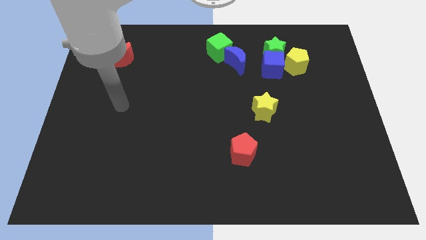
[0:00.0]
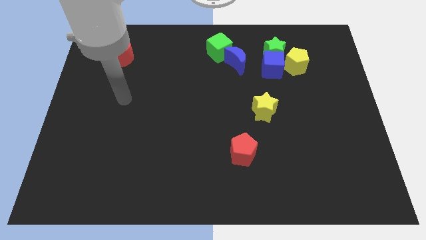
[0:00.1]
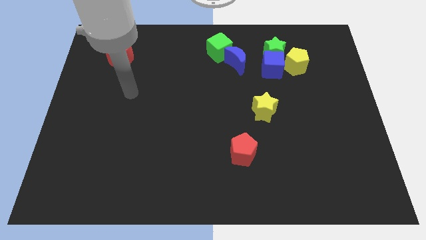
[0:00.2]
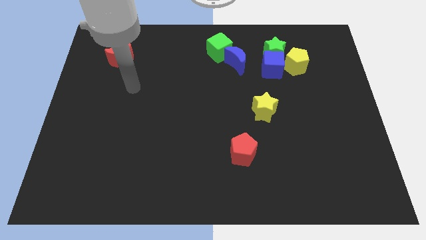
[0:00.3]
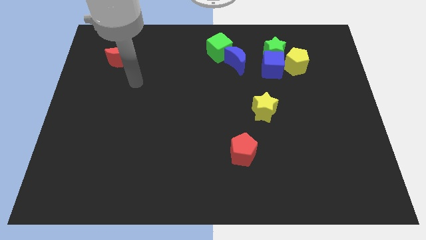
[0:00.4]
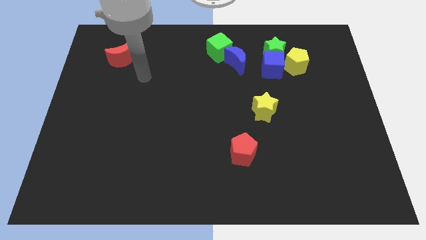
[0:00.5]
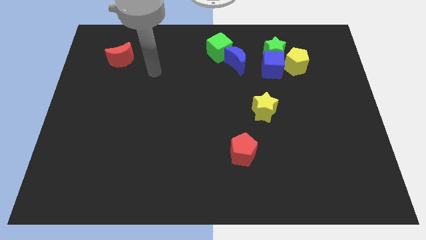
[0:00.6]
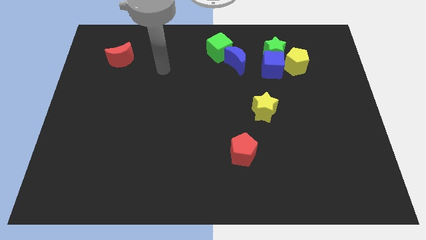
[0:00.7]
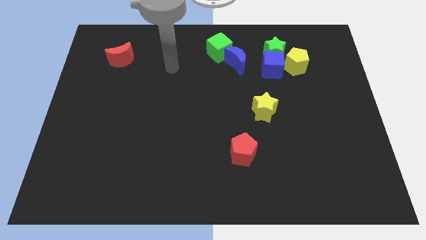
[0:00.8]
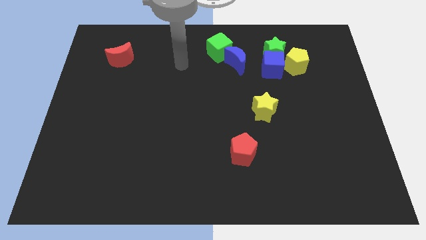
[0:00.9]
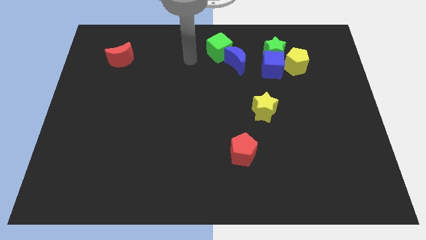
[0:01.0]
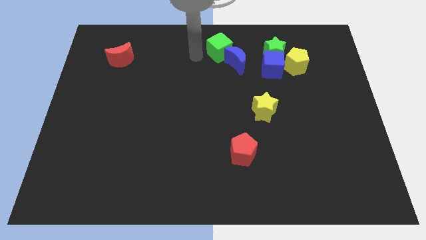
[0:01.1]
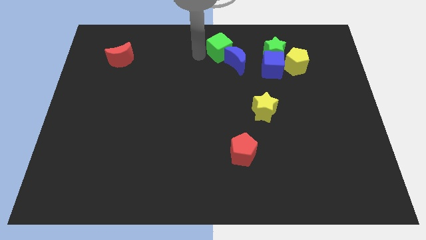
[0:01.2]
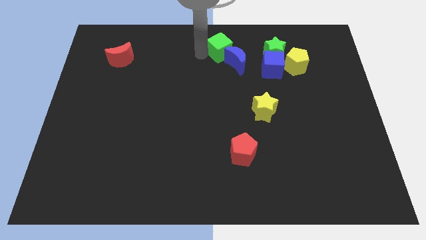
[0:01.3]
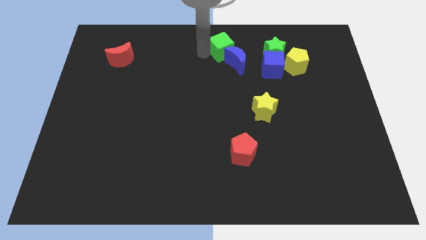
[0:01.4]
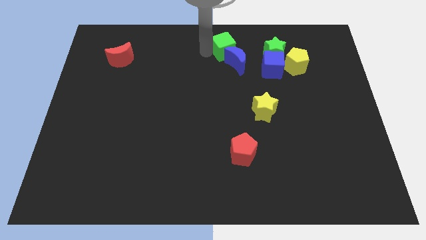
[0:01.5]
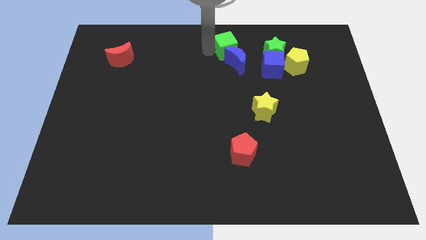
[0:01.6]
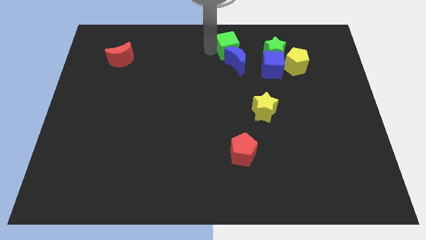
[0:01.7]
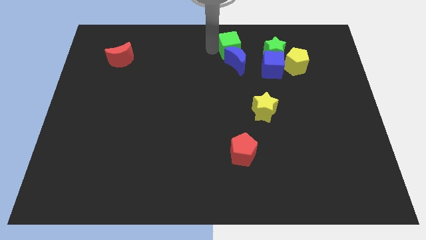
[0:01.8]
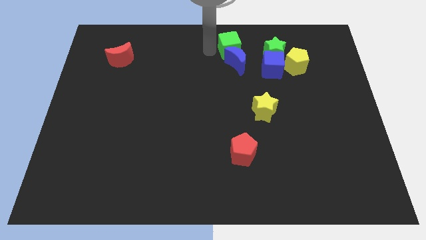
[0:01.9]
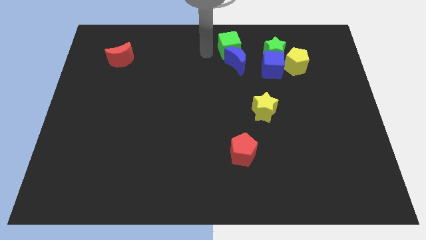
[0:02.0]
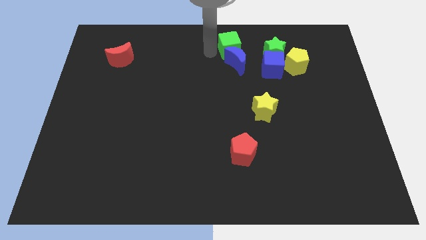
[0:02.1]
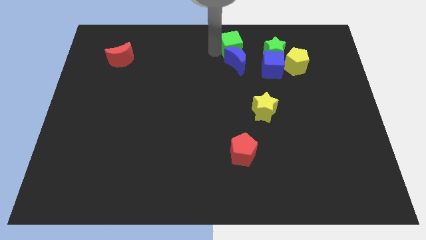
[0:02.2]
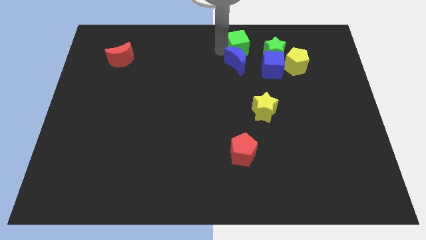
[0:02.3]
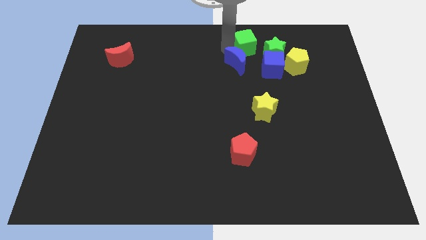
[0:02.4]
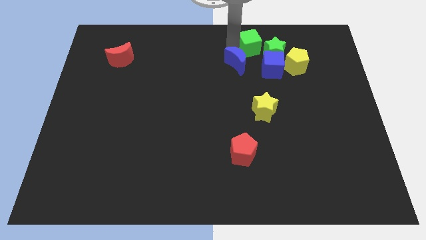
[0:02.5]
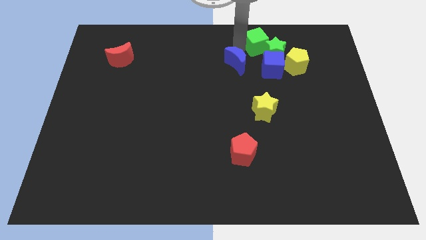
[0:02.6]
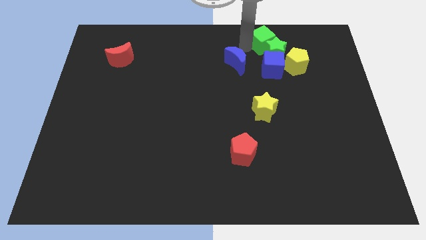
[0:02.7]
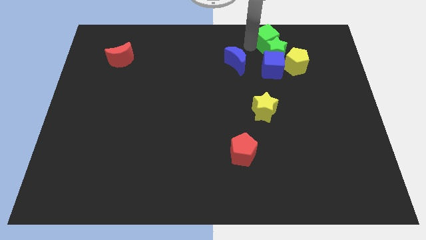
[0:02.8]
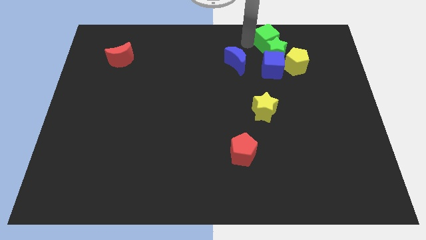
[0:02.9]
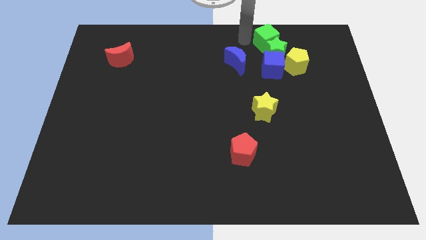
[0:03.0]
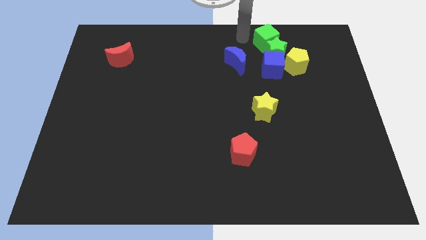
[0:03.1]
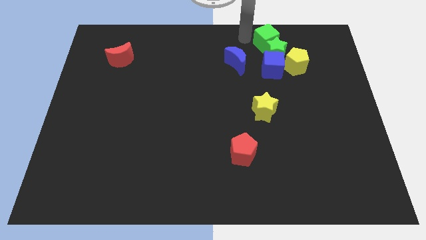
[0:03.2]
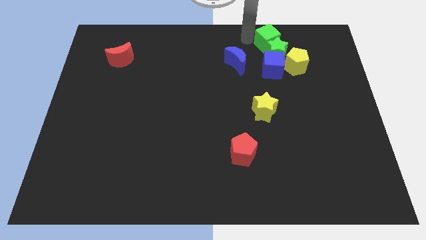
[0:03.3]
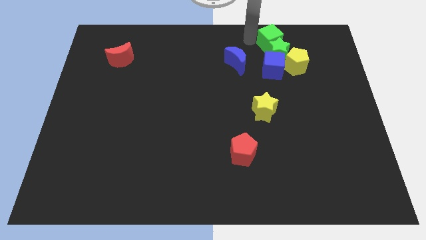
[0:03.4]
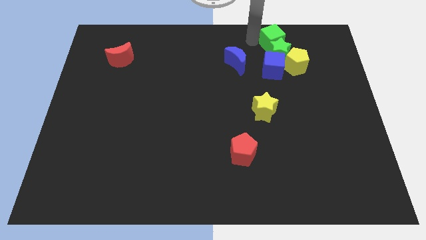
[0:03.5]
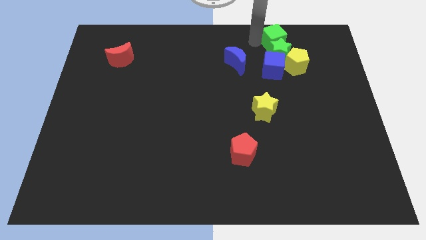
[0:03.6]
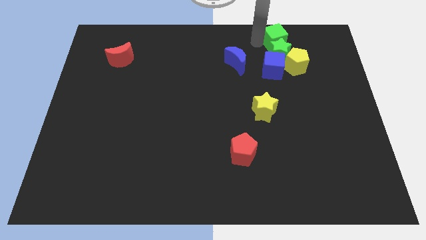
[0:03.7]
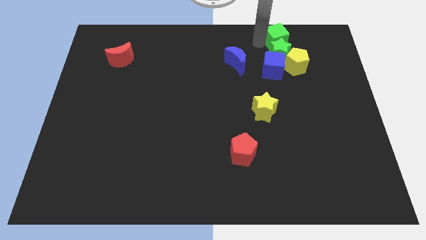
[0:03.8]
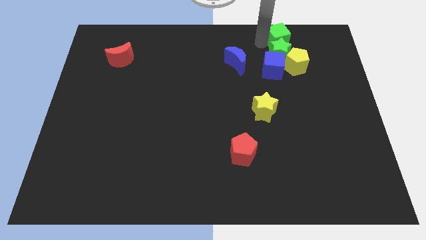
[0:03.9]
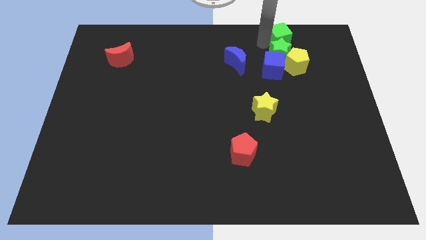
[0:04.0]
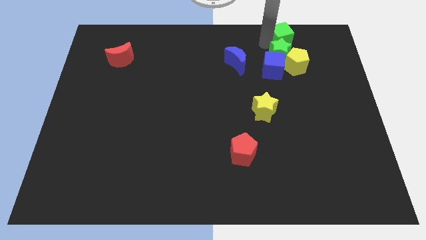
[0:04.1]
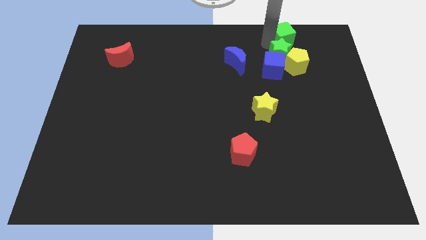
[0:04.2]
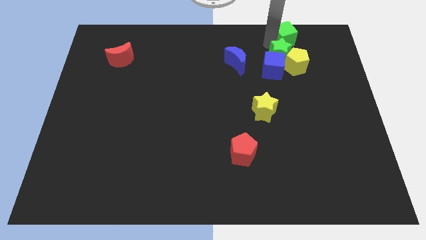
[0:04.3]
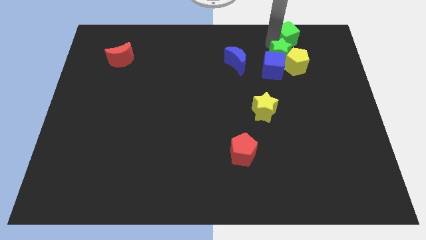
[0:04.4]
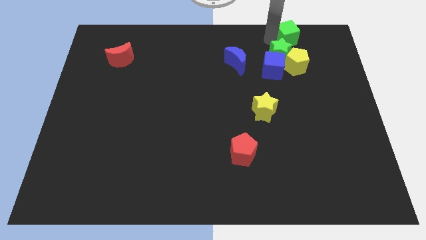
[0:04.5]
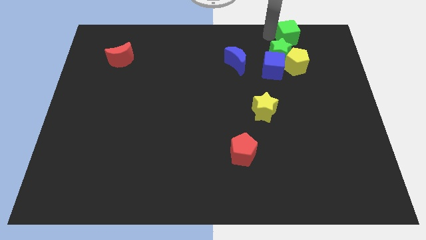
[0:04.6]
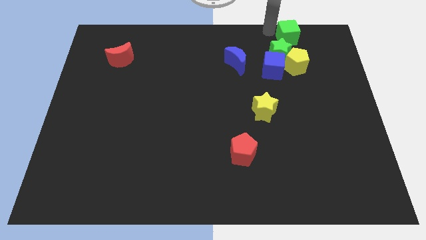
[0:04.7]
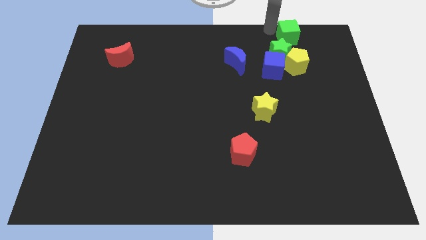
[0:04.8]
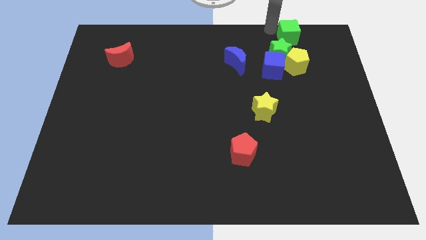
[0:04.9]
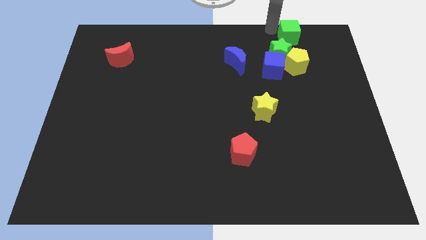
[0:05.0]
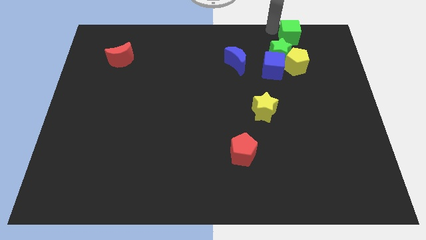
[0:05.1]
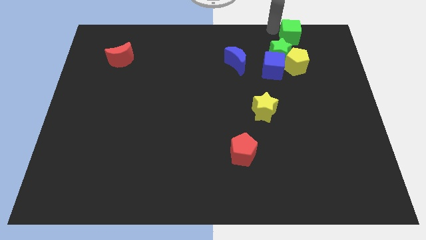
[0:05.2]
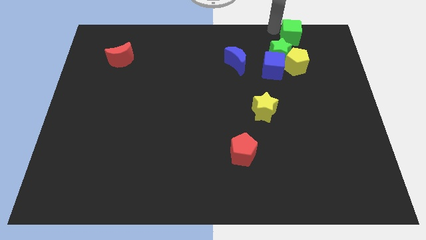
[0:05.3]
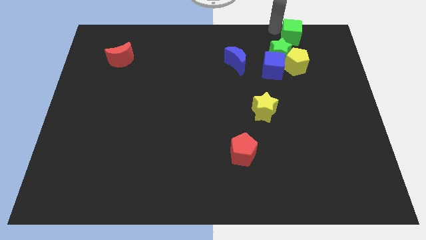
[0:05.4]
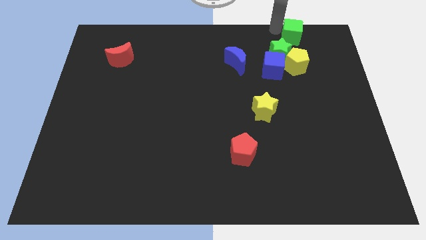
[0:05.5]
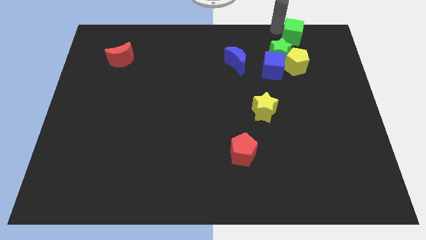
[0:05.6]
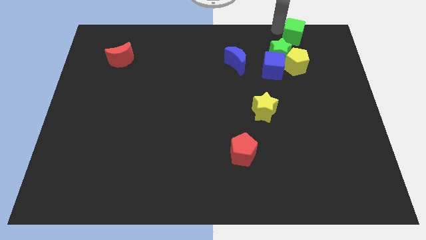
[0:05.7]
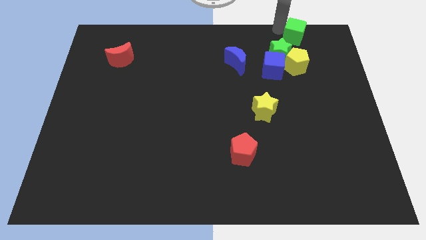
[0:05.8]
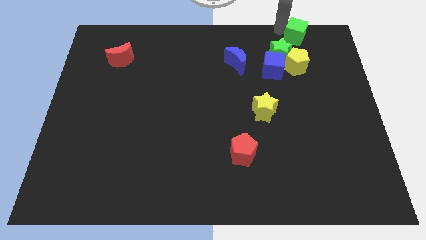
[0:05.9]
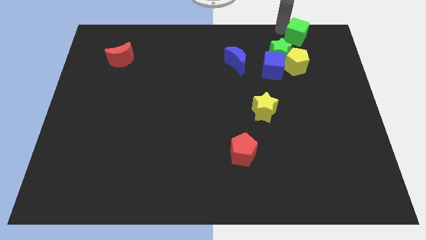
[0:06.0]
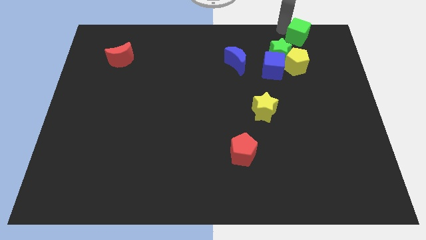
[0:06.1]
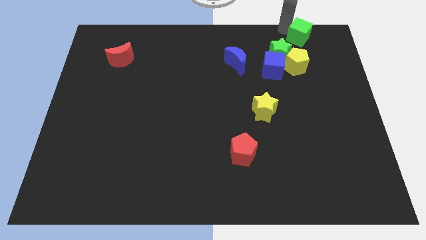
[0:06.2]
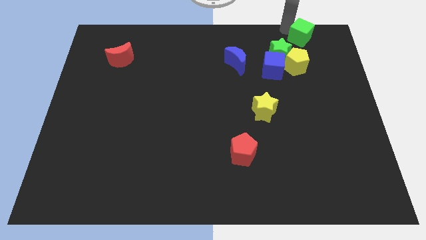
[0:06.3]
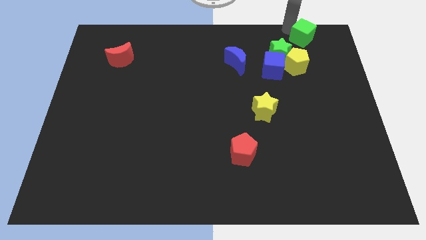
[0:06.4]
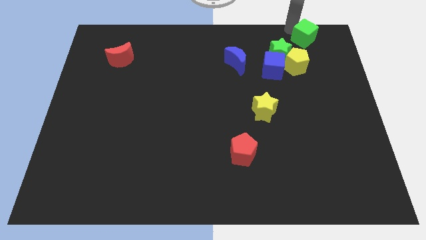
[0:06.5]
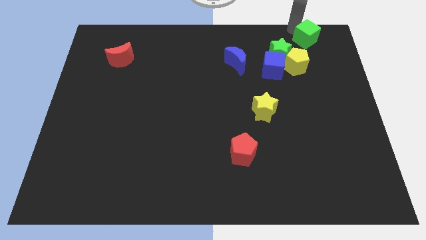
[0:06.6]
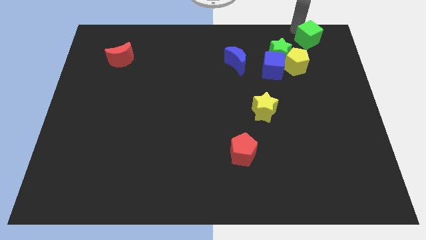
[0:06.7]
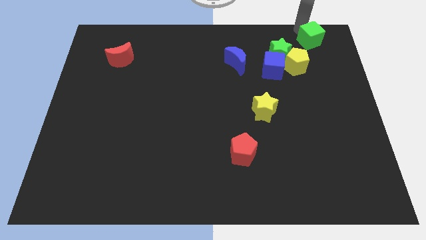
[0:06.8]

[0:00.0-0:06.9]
slide the green cube to the top right corner
